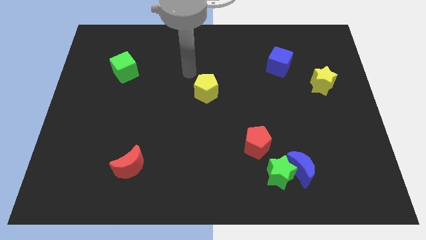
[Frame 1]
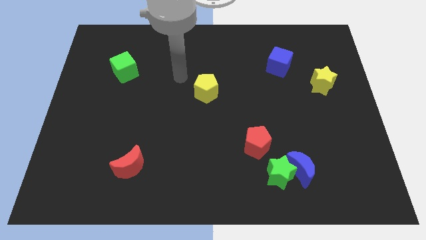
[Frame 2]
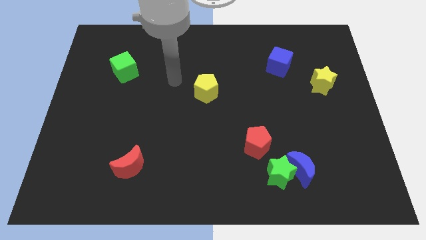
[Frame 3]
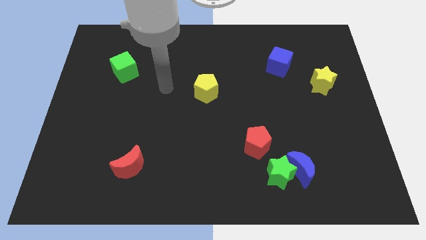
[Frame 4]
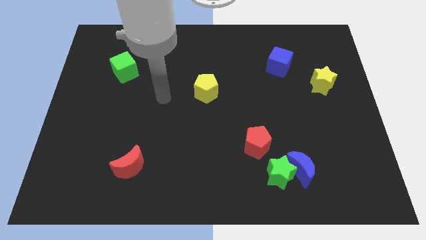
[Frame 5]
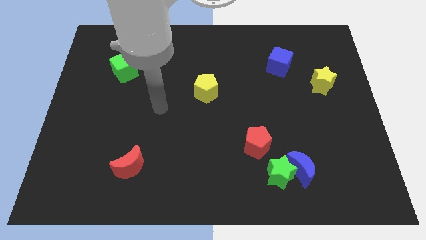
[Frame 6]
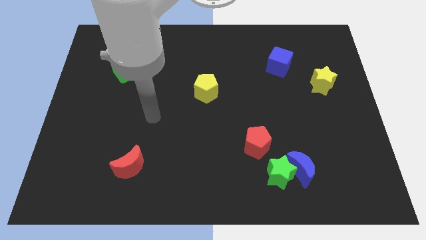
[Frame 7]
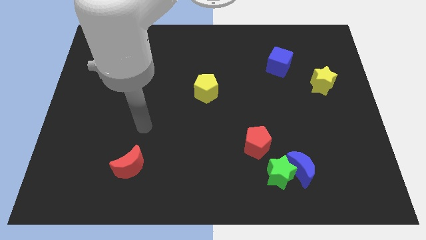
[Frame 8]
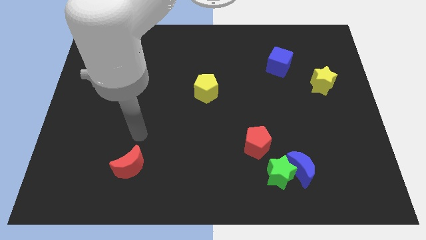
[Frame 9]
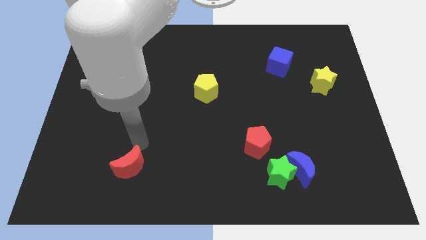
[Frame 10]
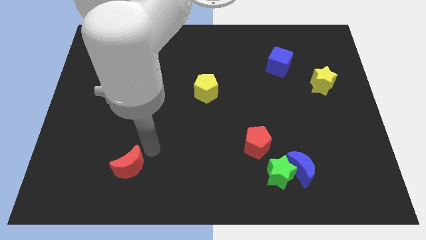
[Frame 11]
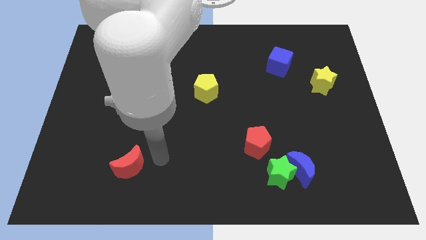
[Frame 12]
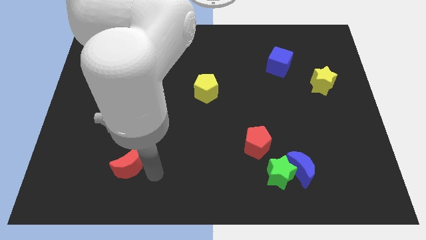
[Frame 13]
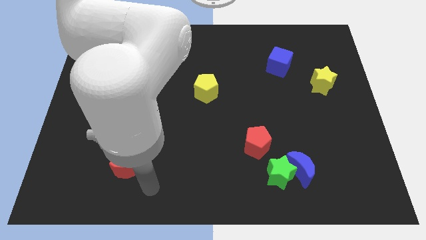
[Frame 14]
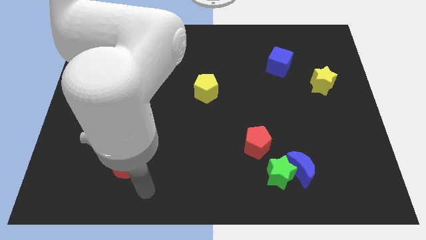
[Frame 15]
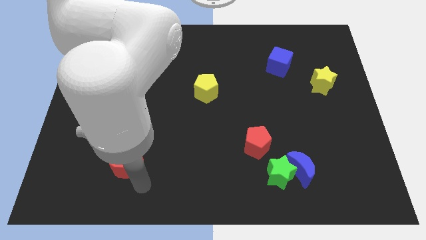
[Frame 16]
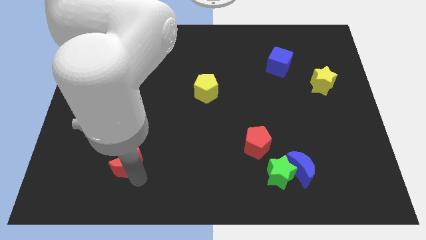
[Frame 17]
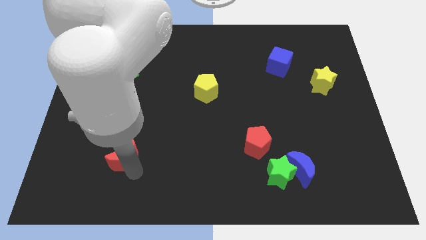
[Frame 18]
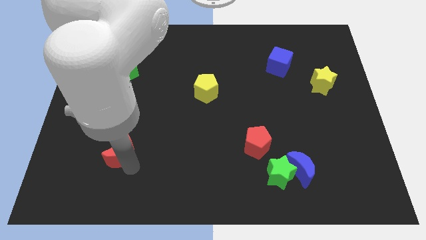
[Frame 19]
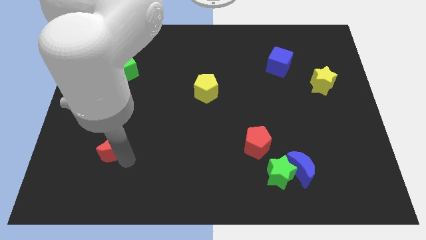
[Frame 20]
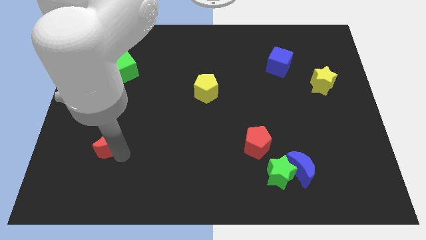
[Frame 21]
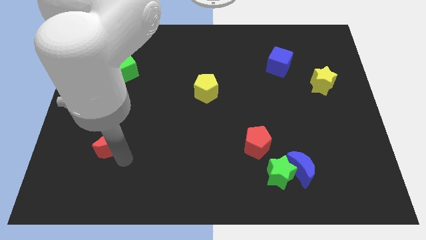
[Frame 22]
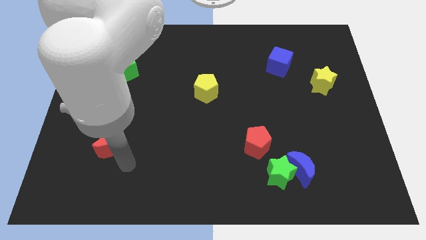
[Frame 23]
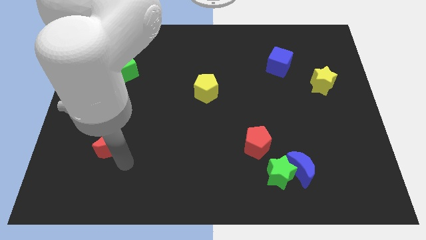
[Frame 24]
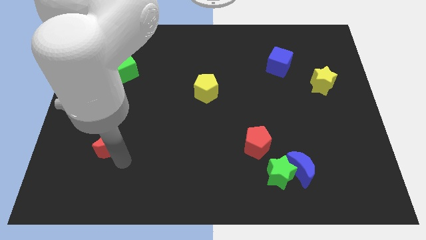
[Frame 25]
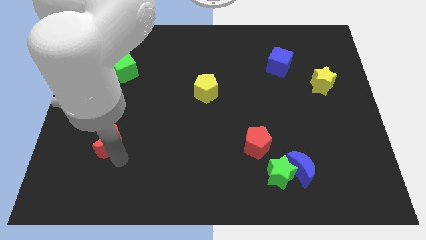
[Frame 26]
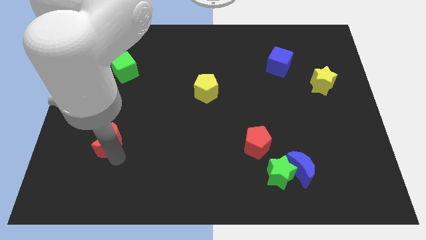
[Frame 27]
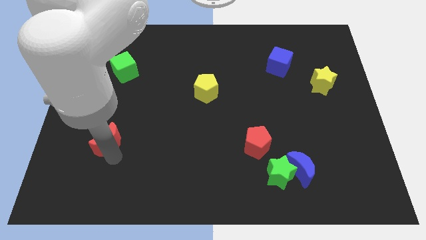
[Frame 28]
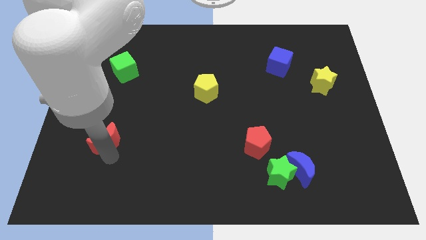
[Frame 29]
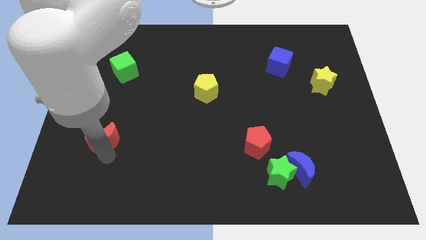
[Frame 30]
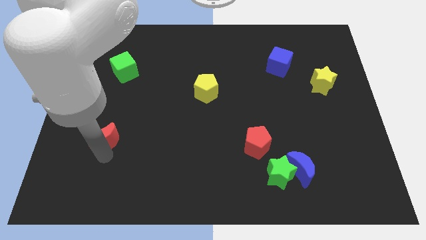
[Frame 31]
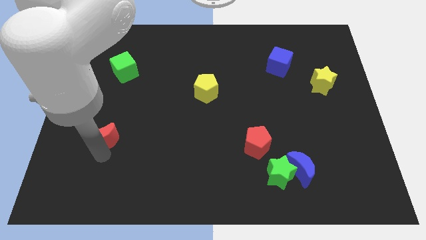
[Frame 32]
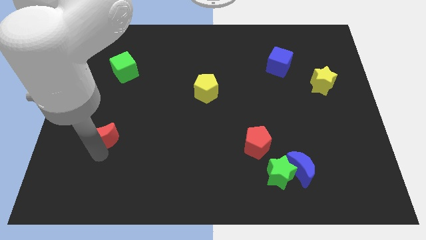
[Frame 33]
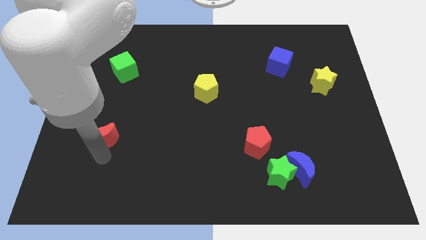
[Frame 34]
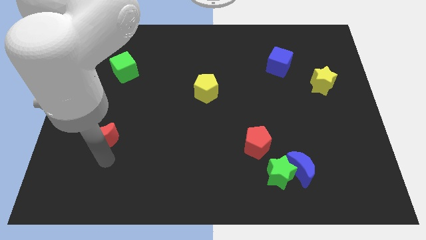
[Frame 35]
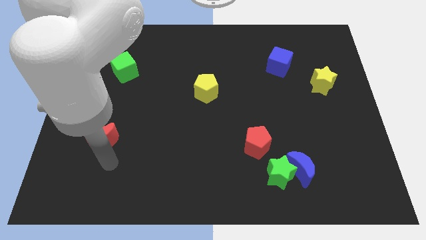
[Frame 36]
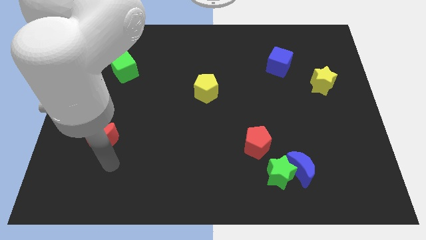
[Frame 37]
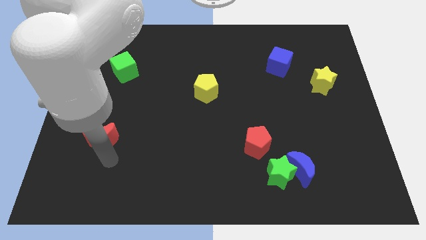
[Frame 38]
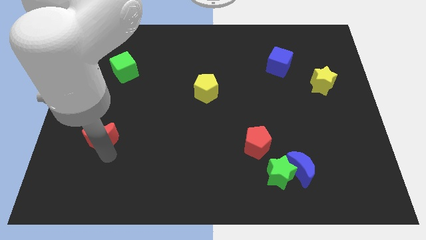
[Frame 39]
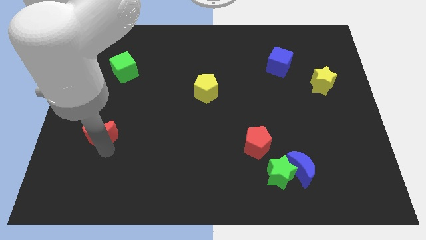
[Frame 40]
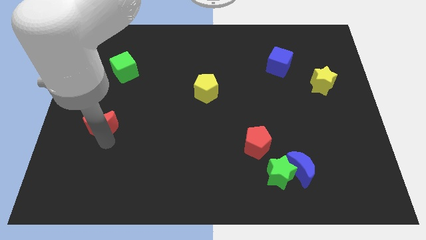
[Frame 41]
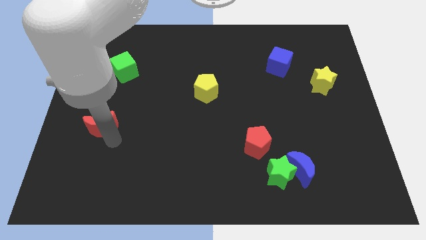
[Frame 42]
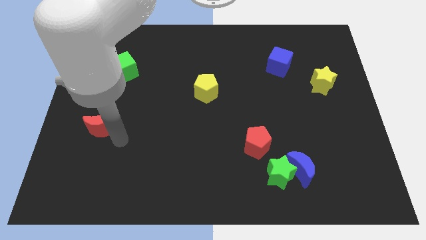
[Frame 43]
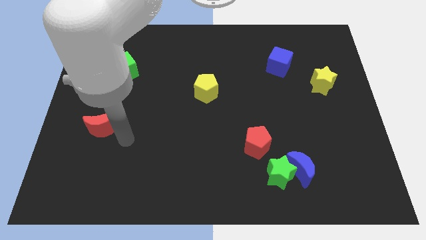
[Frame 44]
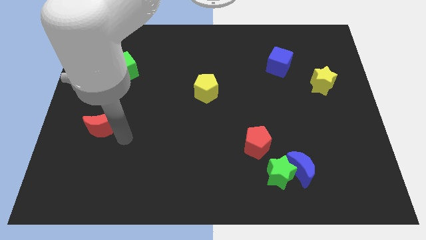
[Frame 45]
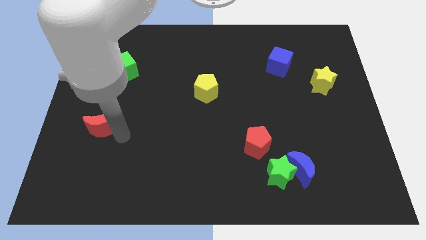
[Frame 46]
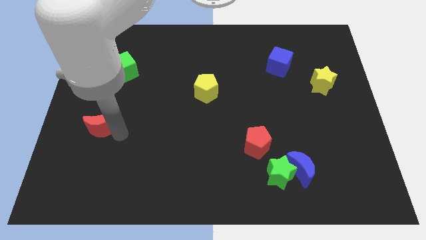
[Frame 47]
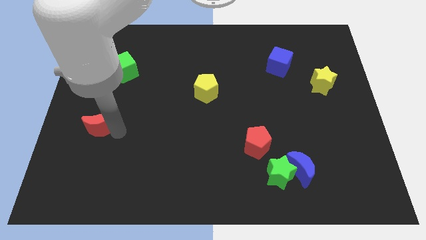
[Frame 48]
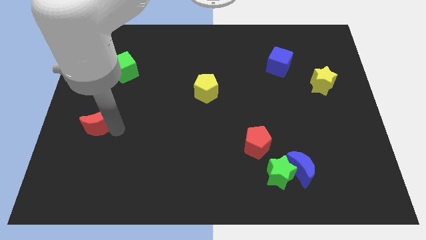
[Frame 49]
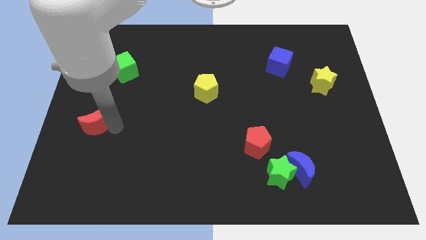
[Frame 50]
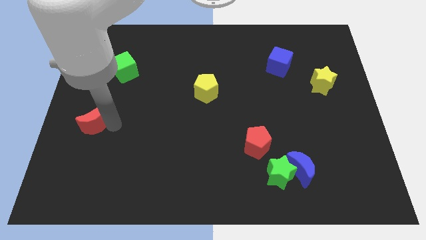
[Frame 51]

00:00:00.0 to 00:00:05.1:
move the red moon to the left side of the board

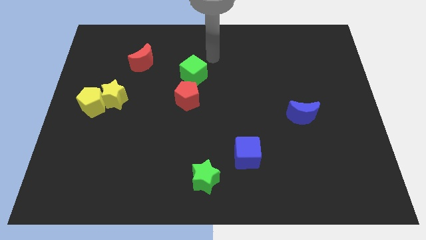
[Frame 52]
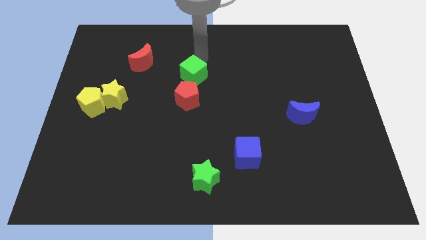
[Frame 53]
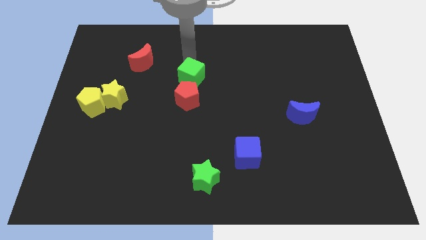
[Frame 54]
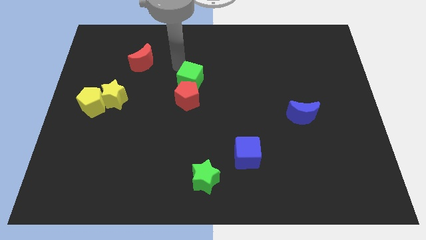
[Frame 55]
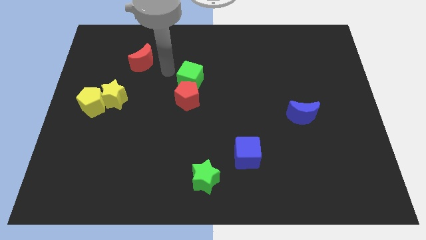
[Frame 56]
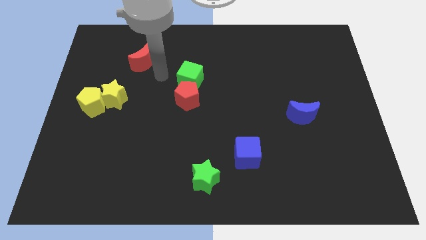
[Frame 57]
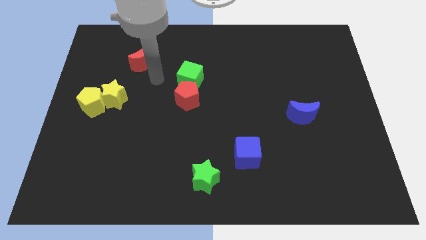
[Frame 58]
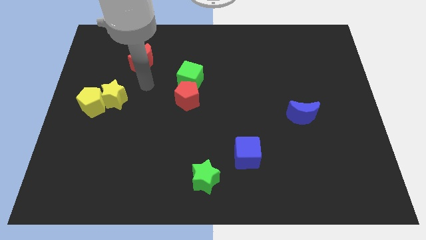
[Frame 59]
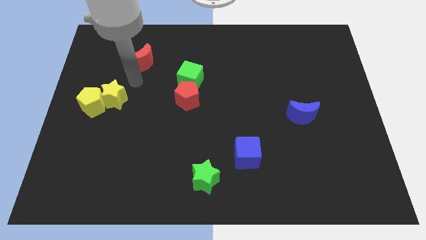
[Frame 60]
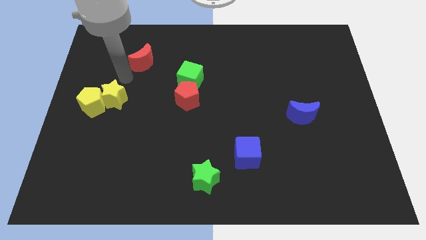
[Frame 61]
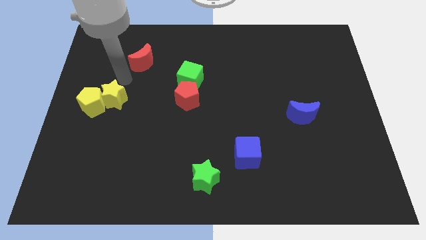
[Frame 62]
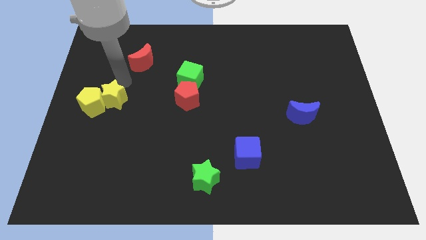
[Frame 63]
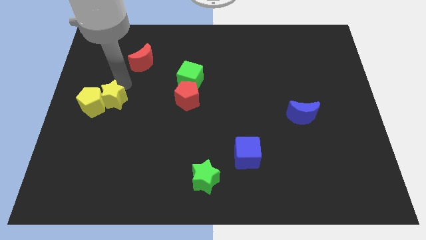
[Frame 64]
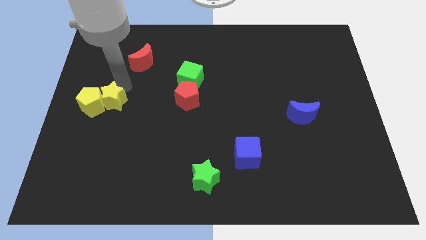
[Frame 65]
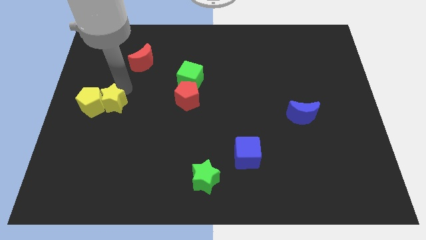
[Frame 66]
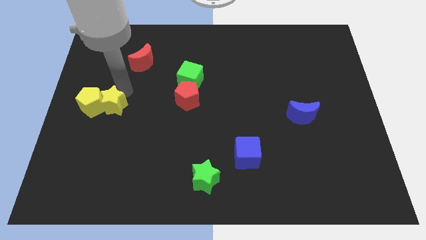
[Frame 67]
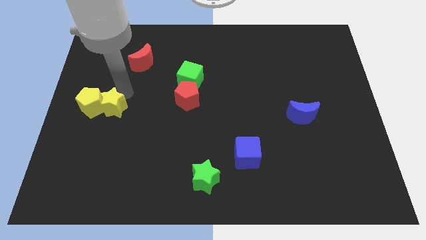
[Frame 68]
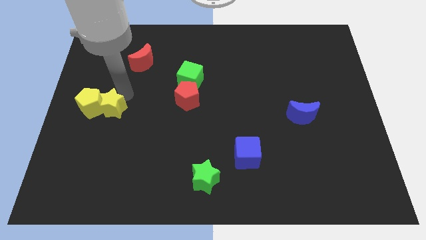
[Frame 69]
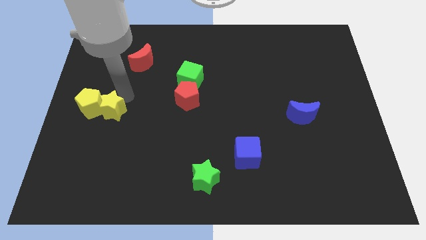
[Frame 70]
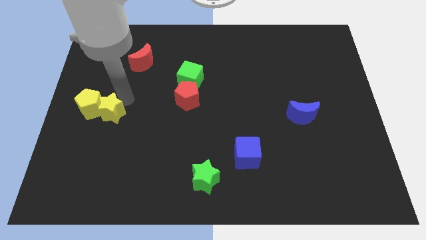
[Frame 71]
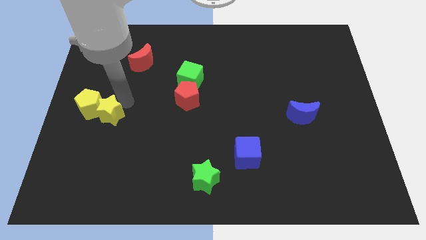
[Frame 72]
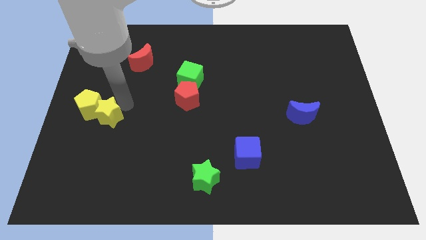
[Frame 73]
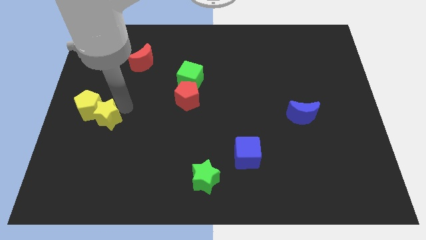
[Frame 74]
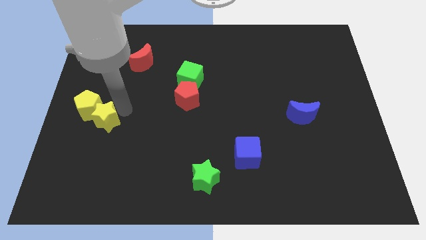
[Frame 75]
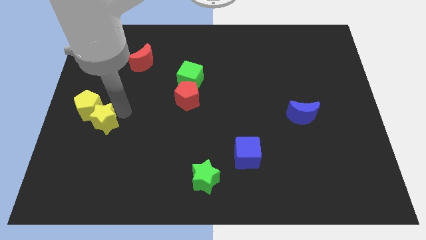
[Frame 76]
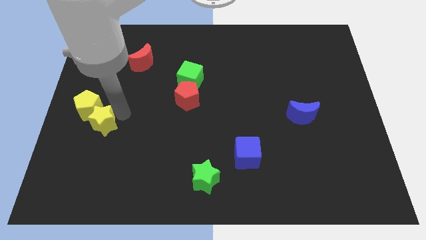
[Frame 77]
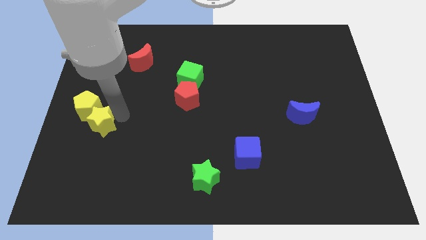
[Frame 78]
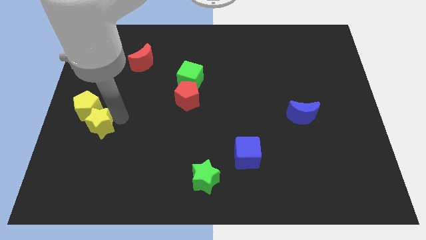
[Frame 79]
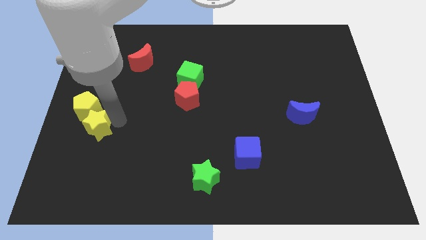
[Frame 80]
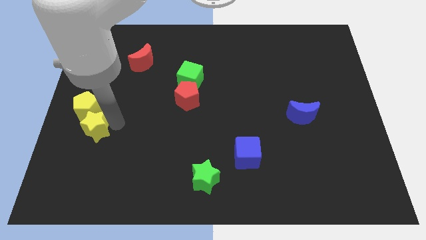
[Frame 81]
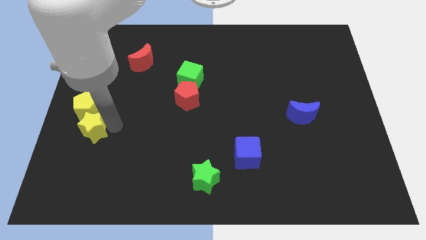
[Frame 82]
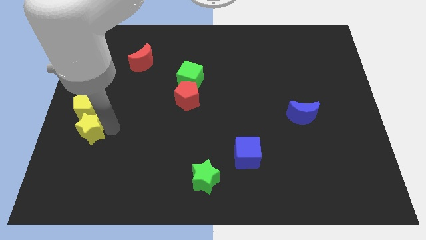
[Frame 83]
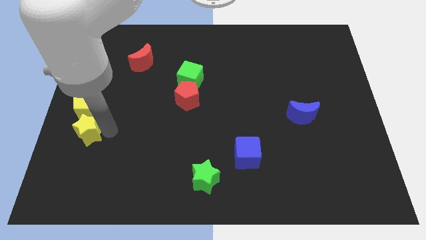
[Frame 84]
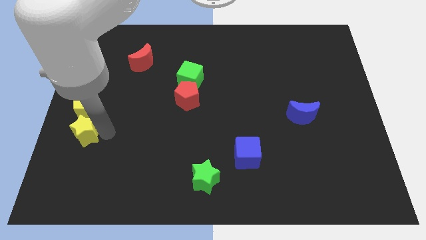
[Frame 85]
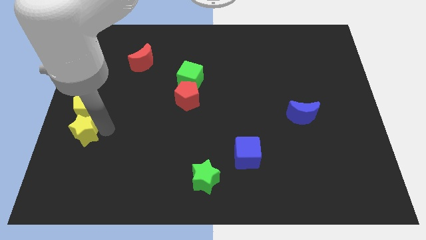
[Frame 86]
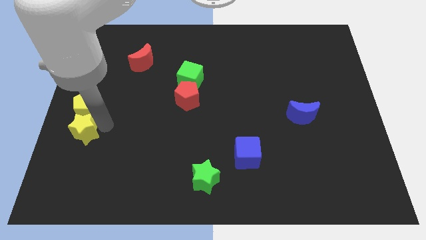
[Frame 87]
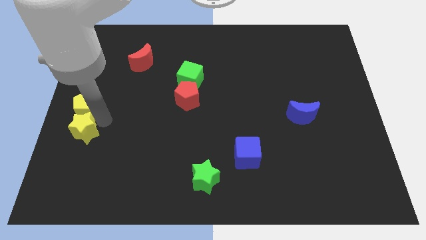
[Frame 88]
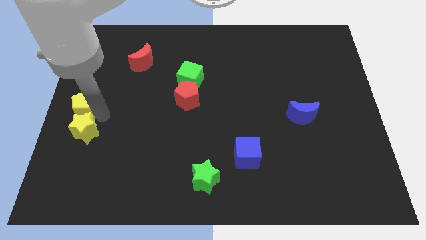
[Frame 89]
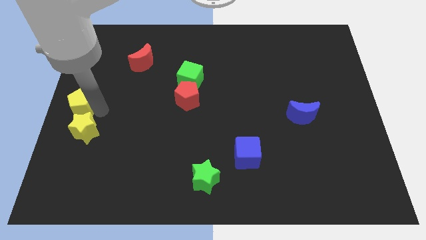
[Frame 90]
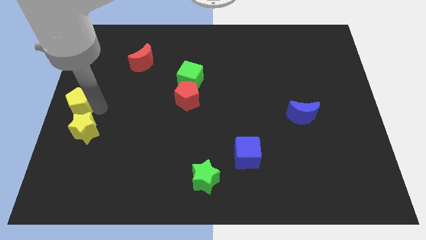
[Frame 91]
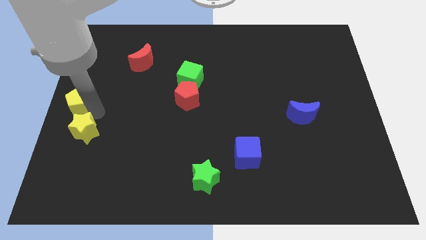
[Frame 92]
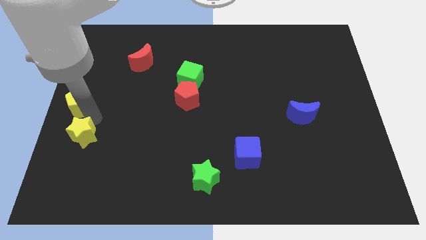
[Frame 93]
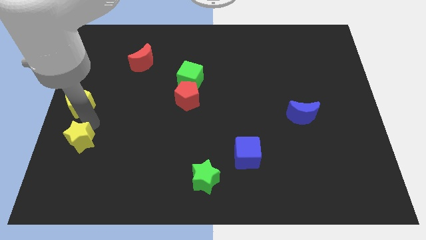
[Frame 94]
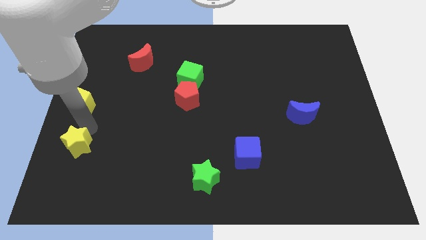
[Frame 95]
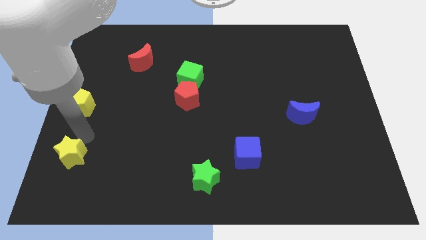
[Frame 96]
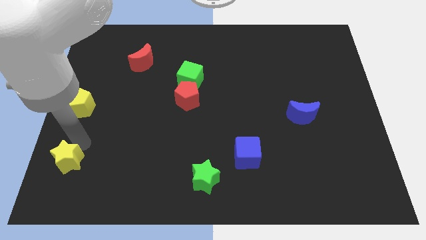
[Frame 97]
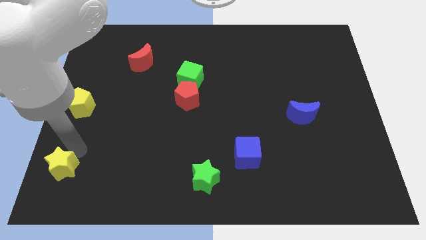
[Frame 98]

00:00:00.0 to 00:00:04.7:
put the yellow star to the lower left corner
